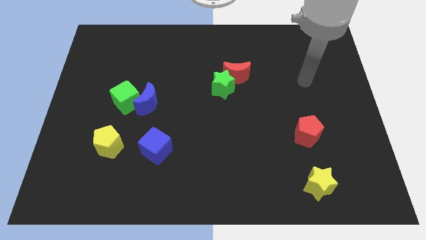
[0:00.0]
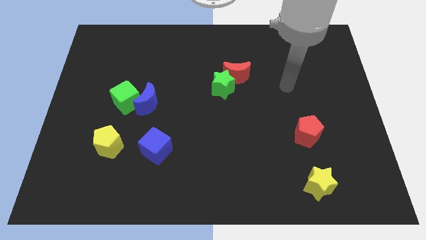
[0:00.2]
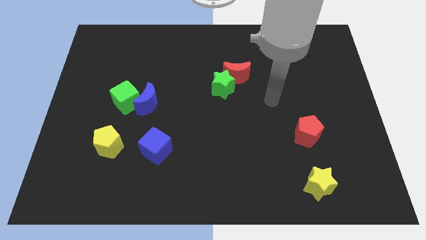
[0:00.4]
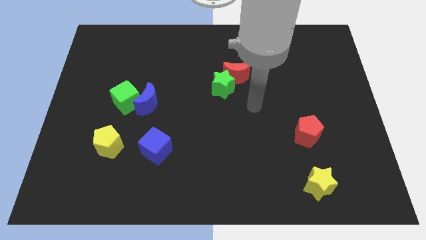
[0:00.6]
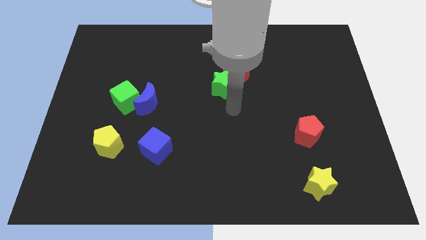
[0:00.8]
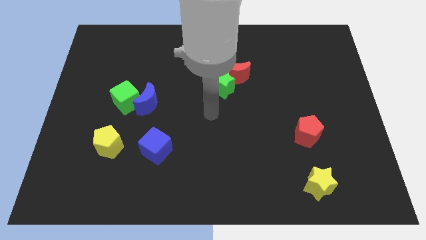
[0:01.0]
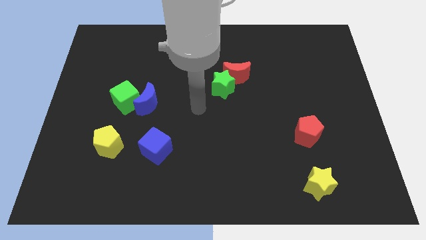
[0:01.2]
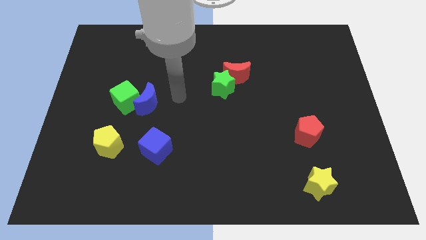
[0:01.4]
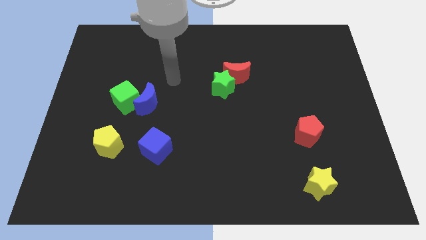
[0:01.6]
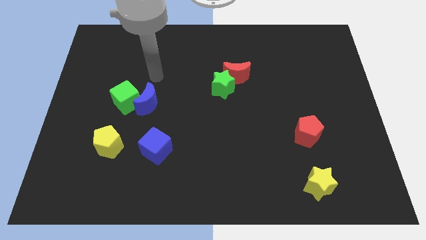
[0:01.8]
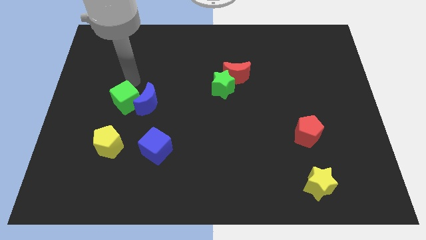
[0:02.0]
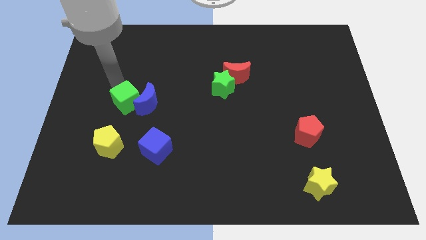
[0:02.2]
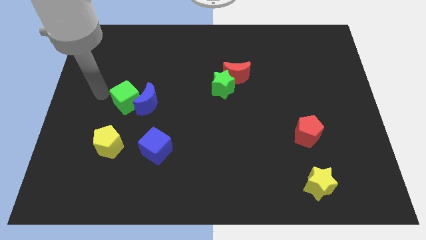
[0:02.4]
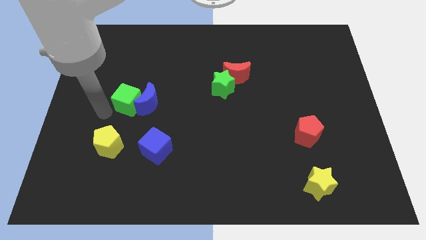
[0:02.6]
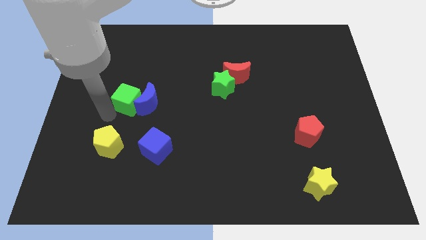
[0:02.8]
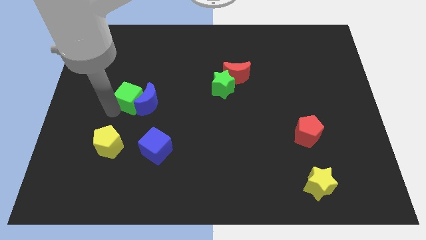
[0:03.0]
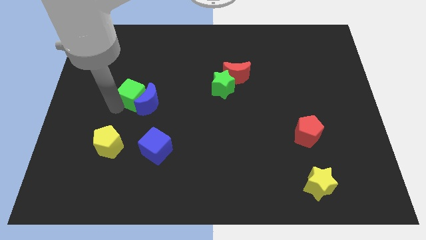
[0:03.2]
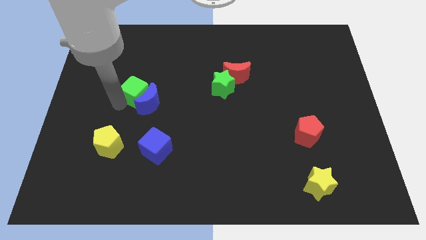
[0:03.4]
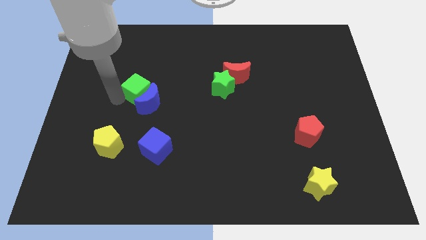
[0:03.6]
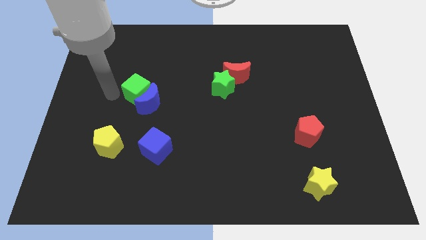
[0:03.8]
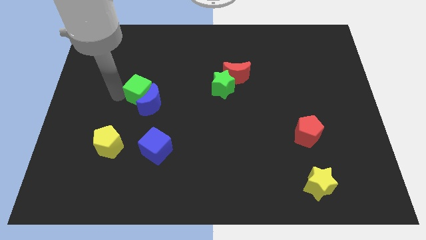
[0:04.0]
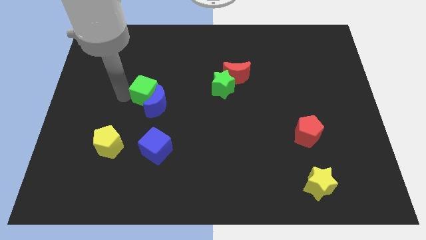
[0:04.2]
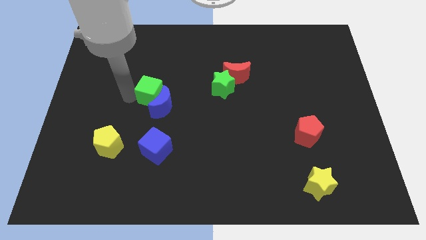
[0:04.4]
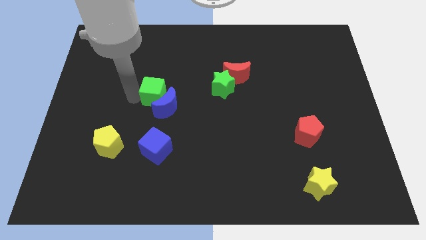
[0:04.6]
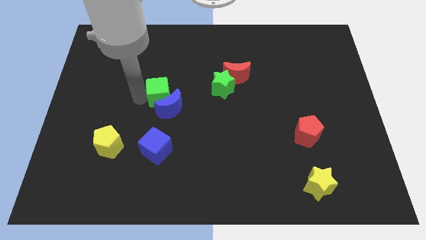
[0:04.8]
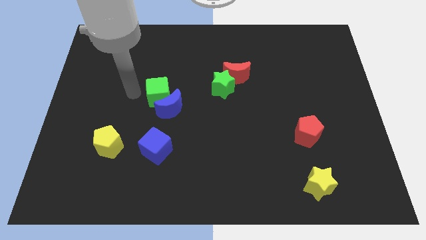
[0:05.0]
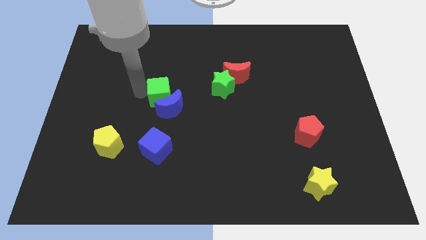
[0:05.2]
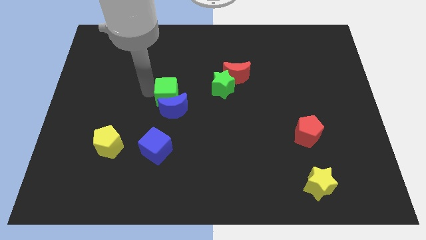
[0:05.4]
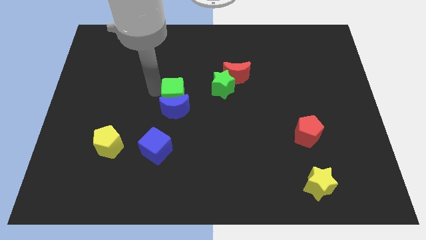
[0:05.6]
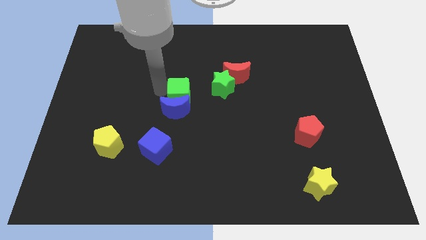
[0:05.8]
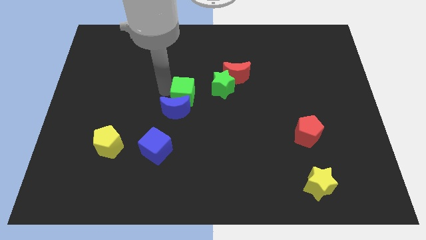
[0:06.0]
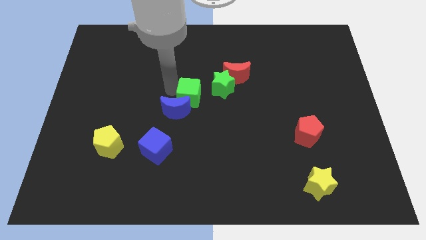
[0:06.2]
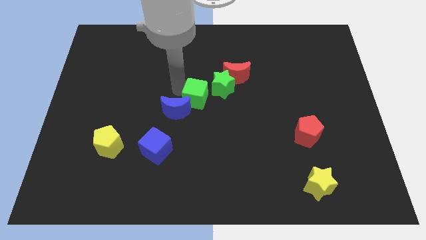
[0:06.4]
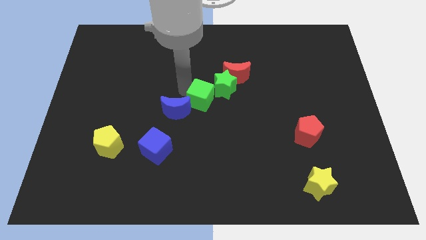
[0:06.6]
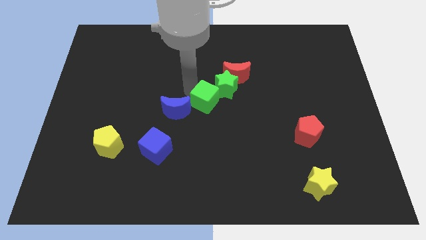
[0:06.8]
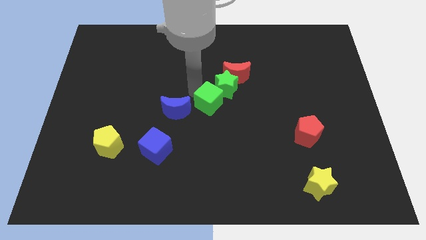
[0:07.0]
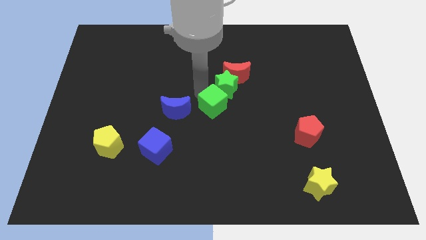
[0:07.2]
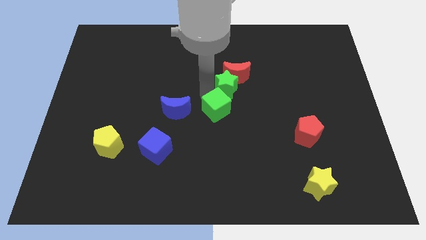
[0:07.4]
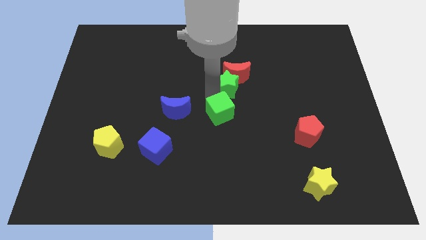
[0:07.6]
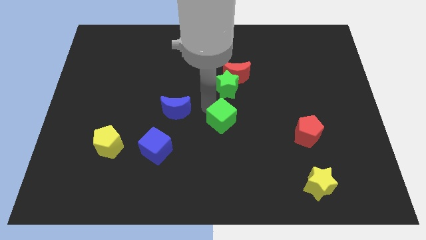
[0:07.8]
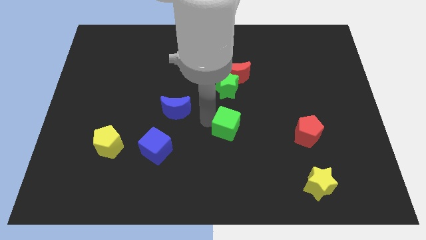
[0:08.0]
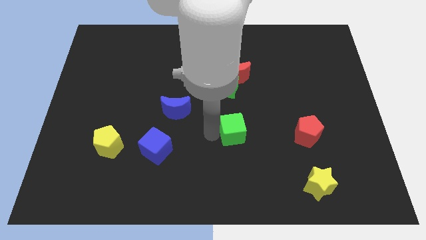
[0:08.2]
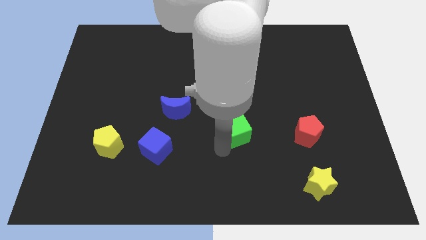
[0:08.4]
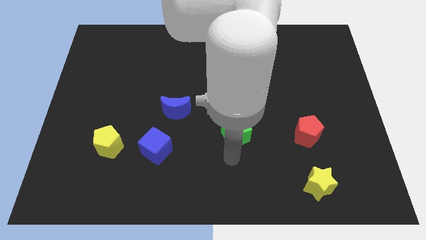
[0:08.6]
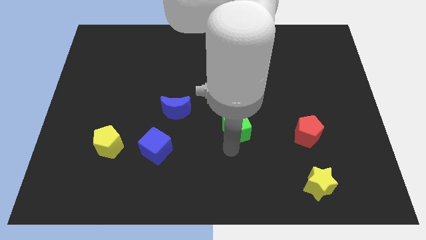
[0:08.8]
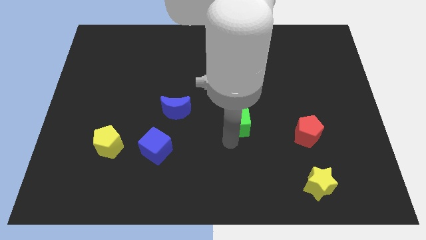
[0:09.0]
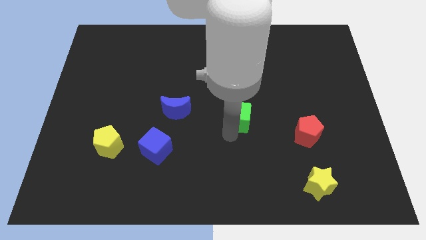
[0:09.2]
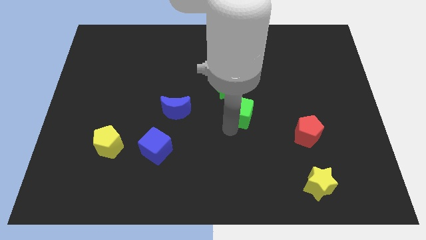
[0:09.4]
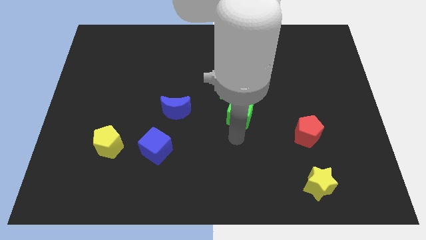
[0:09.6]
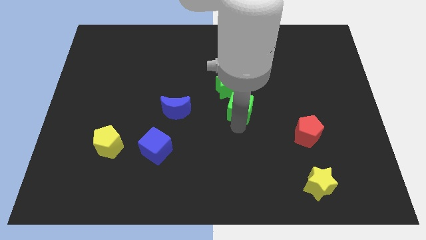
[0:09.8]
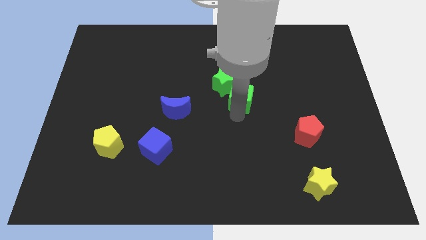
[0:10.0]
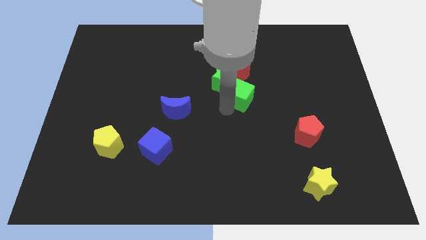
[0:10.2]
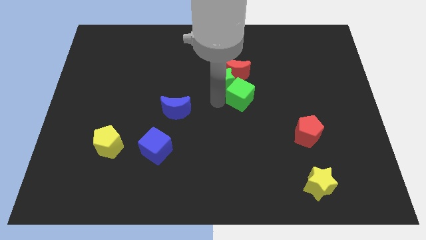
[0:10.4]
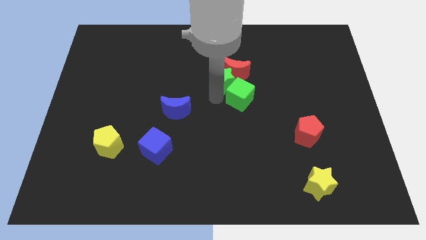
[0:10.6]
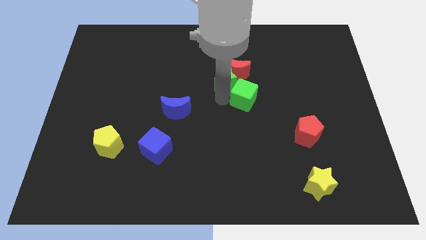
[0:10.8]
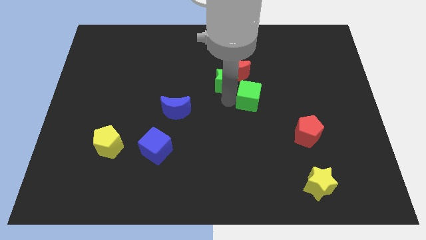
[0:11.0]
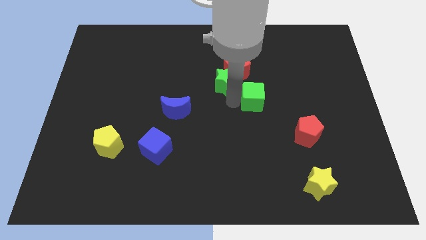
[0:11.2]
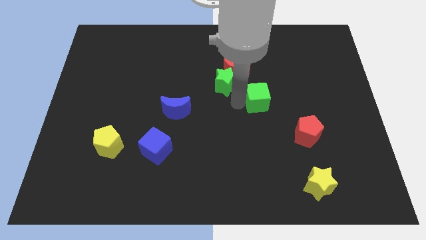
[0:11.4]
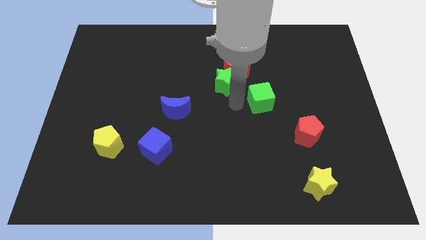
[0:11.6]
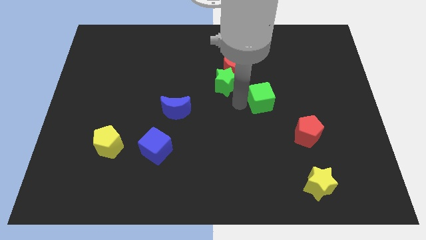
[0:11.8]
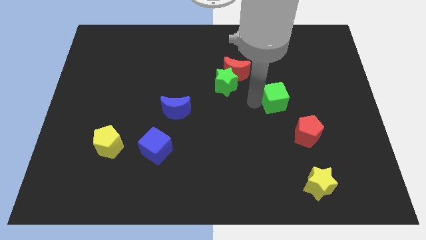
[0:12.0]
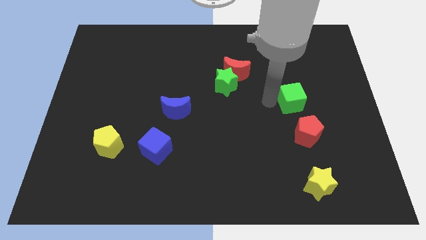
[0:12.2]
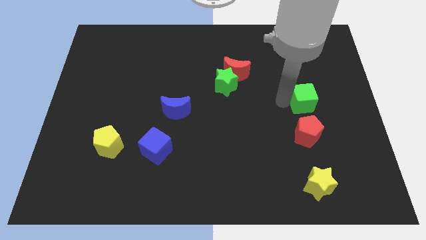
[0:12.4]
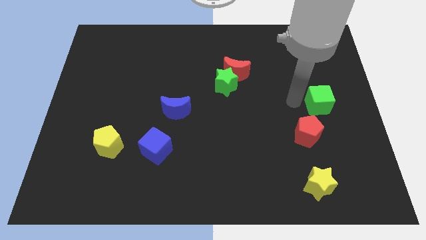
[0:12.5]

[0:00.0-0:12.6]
move the green cube to the right side
